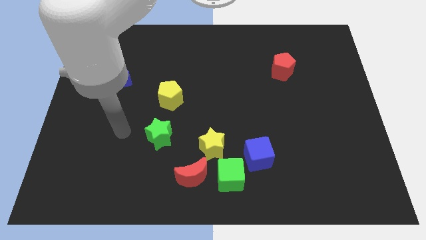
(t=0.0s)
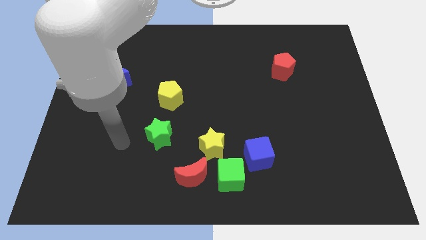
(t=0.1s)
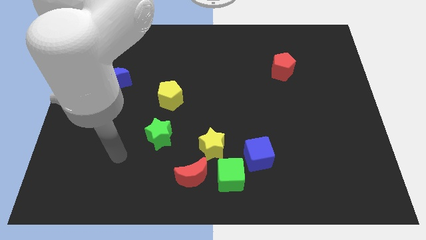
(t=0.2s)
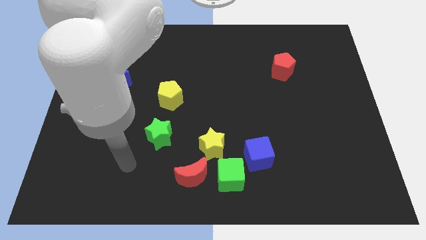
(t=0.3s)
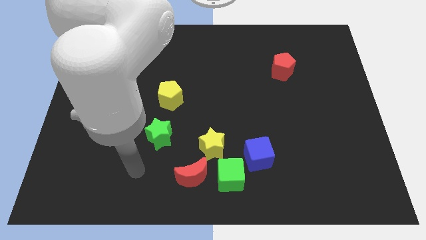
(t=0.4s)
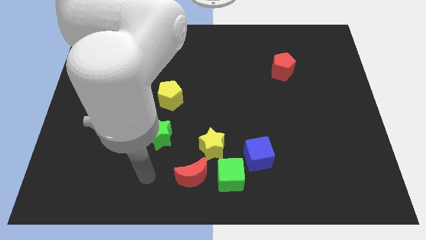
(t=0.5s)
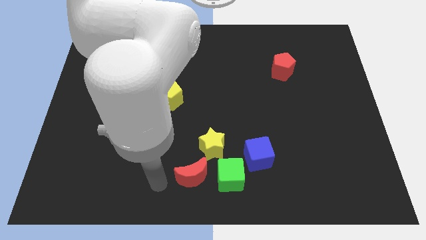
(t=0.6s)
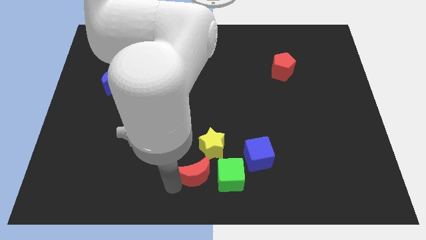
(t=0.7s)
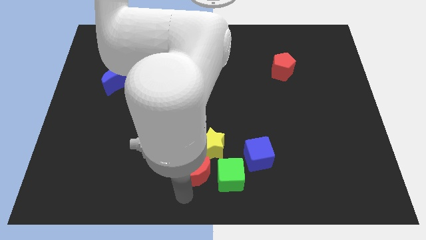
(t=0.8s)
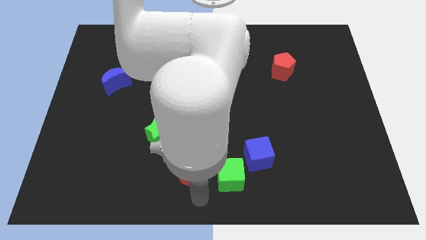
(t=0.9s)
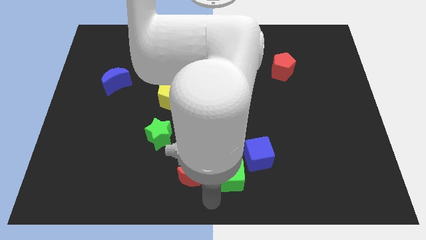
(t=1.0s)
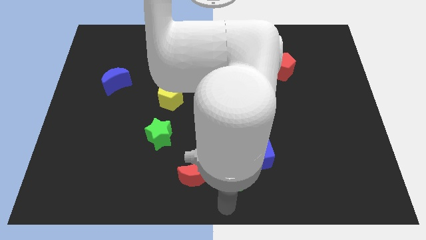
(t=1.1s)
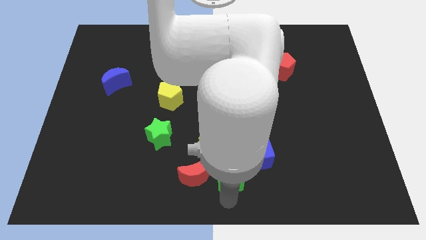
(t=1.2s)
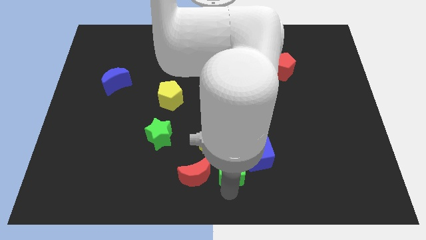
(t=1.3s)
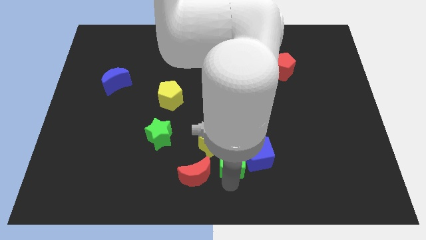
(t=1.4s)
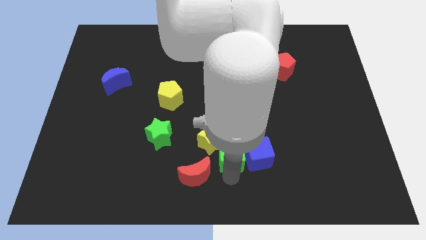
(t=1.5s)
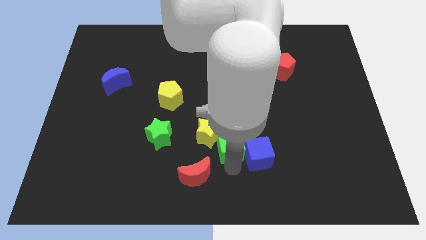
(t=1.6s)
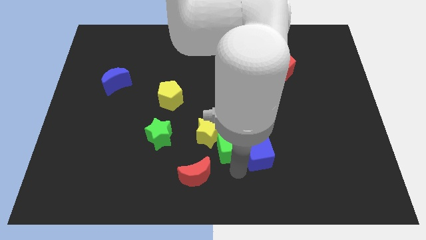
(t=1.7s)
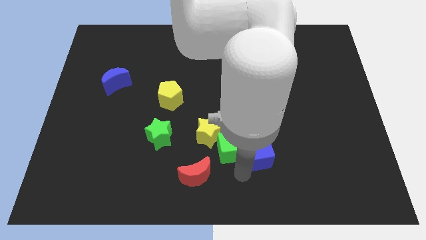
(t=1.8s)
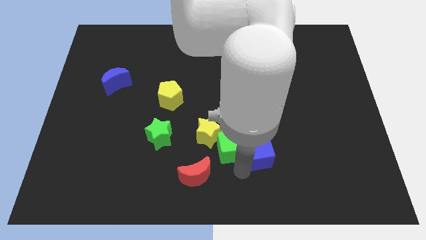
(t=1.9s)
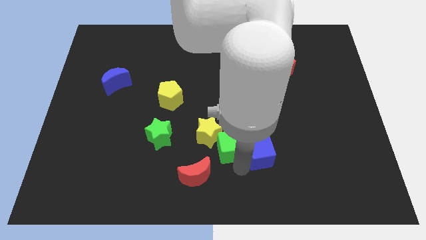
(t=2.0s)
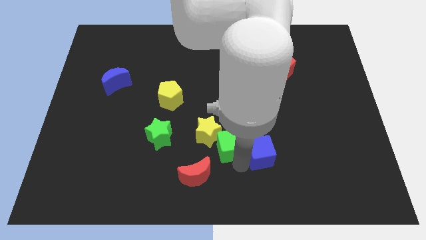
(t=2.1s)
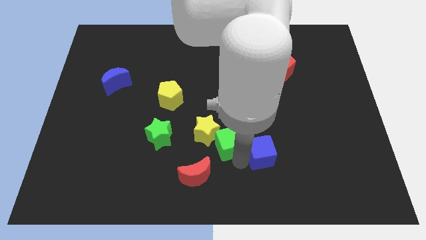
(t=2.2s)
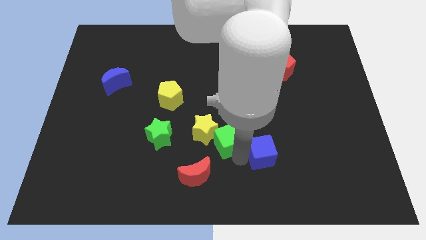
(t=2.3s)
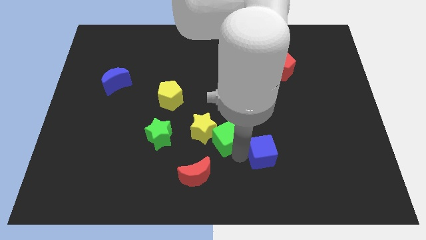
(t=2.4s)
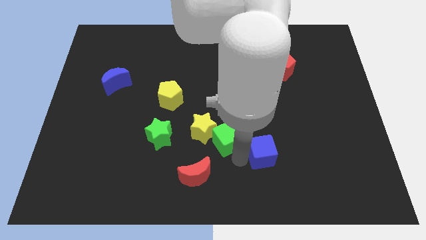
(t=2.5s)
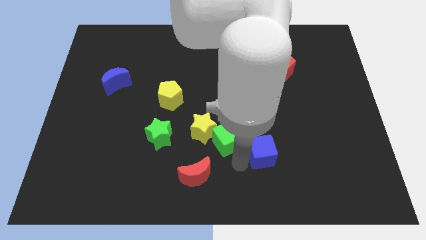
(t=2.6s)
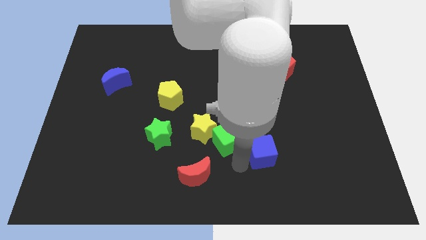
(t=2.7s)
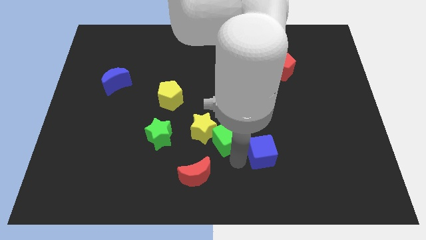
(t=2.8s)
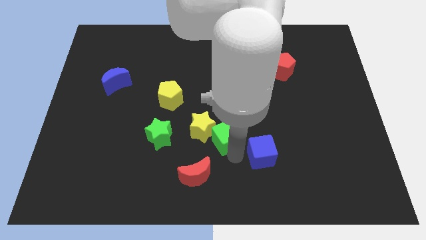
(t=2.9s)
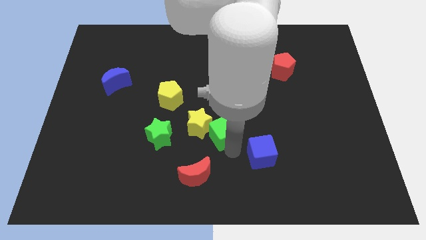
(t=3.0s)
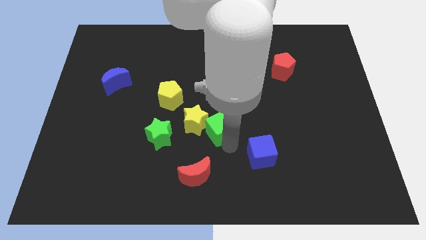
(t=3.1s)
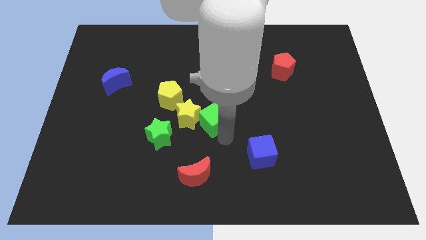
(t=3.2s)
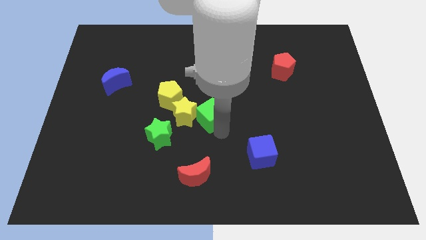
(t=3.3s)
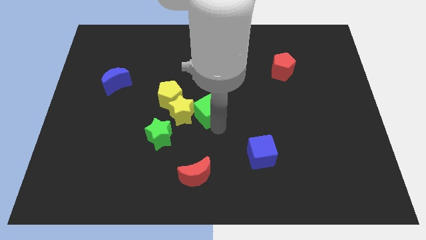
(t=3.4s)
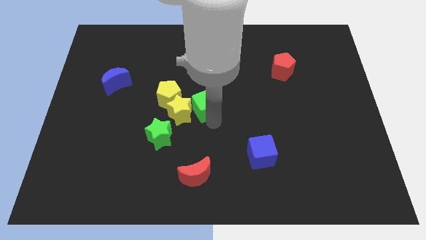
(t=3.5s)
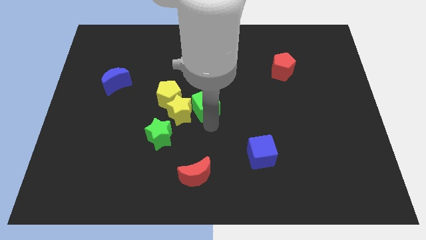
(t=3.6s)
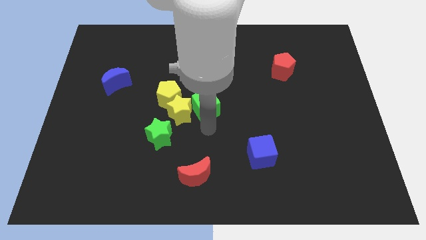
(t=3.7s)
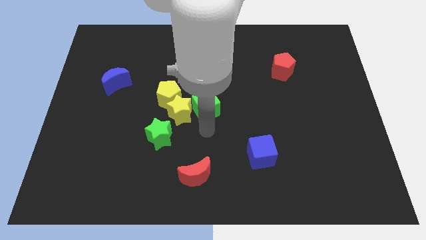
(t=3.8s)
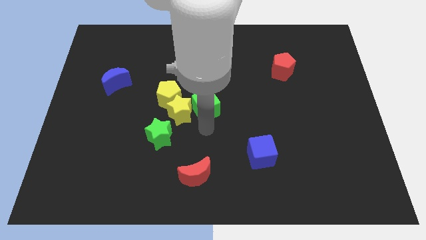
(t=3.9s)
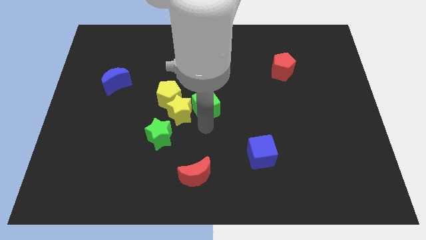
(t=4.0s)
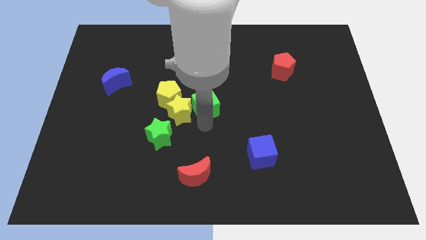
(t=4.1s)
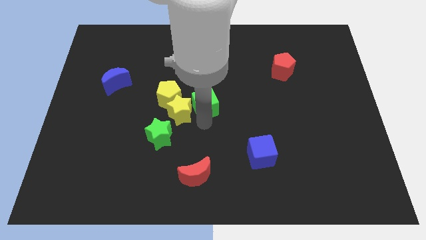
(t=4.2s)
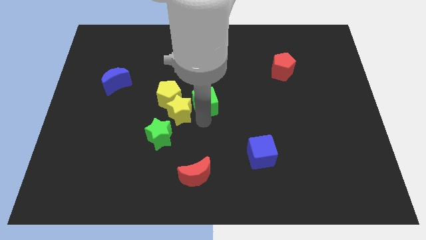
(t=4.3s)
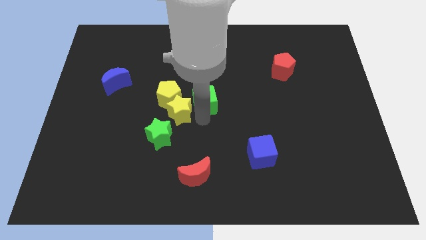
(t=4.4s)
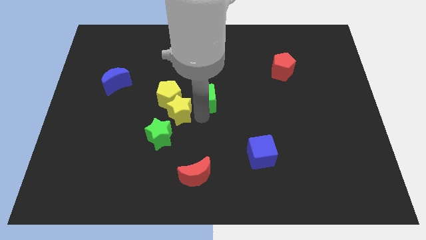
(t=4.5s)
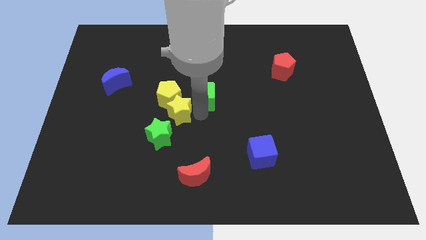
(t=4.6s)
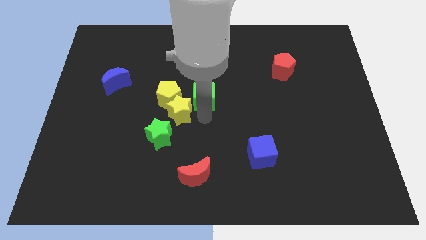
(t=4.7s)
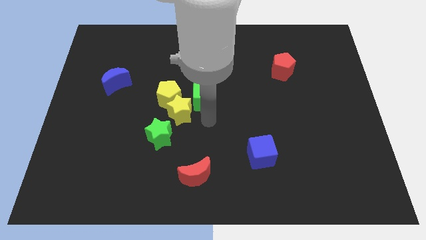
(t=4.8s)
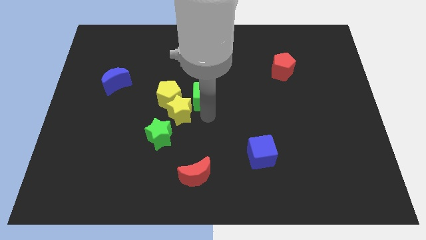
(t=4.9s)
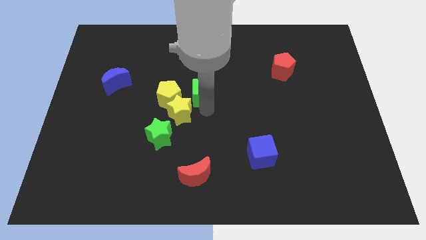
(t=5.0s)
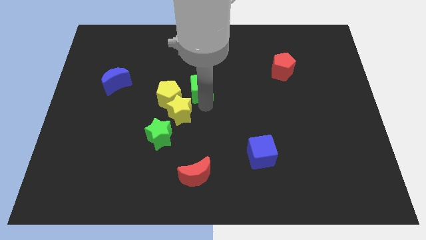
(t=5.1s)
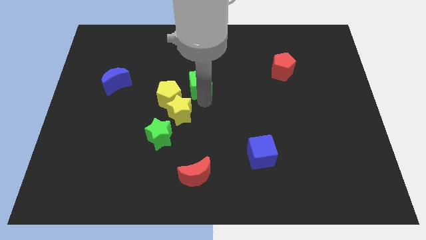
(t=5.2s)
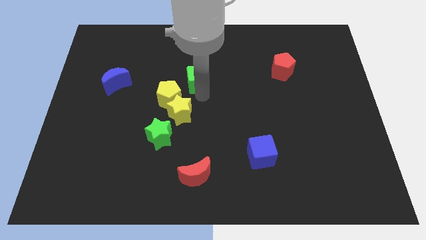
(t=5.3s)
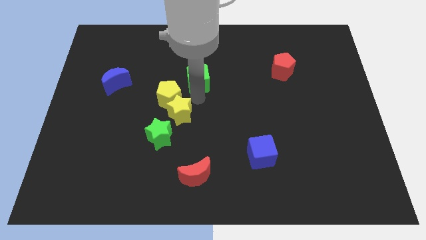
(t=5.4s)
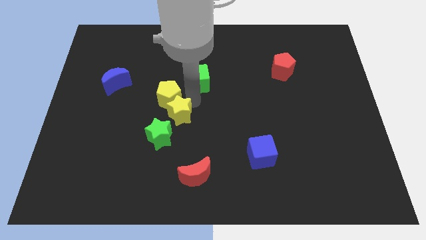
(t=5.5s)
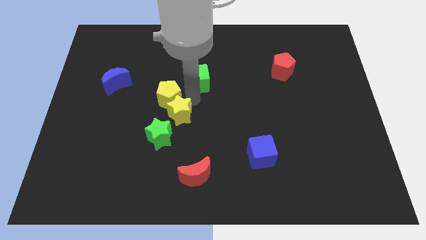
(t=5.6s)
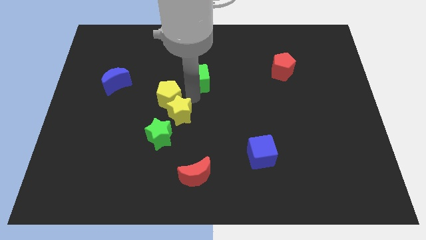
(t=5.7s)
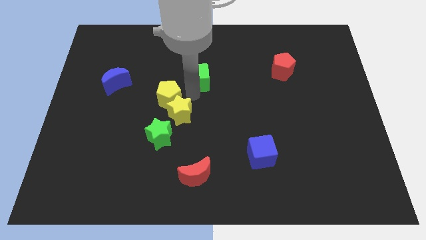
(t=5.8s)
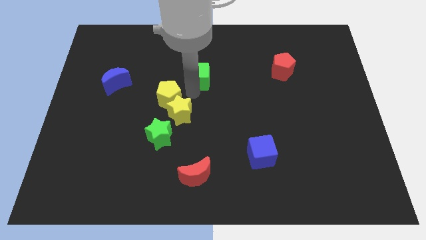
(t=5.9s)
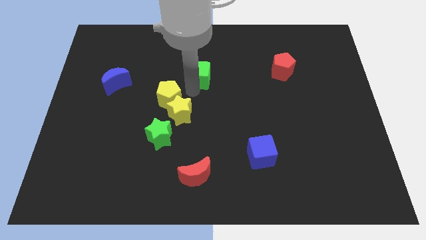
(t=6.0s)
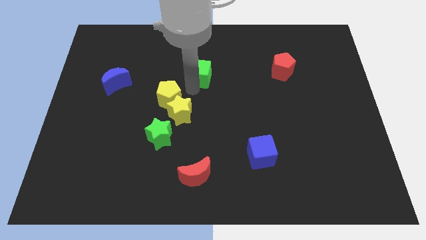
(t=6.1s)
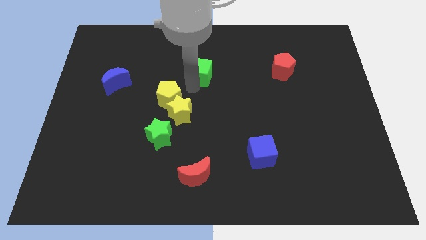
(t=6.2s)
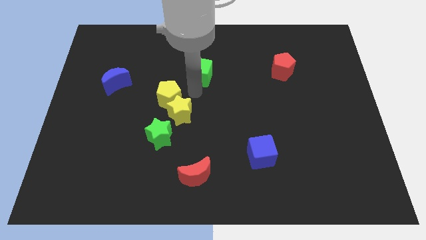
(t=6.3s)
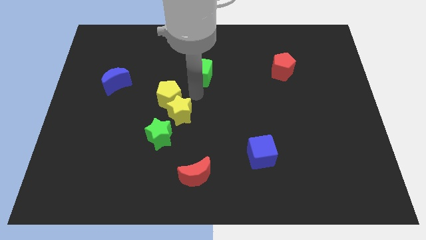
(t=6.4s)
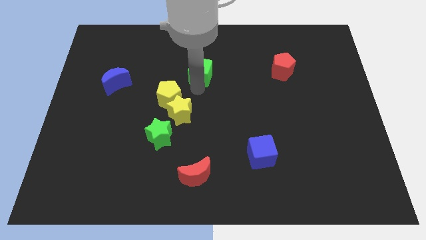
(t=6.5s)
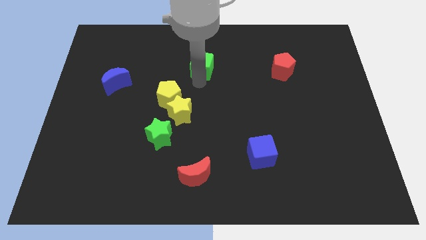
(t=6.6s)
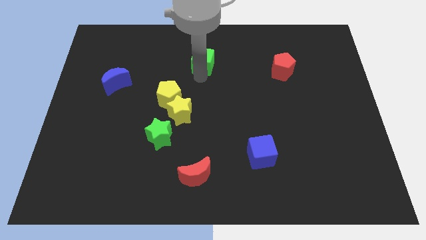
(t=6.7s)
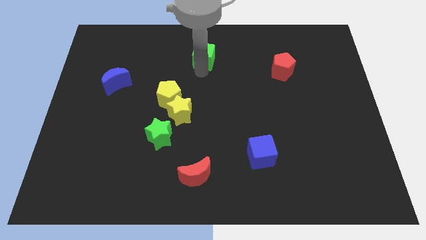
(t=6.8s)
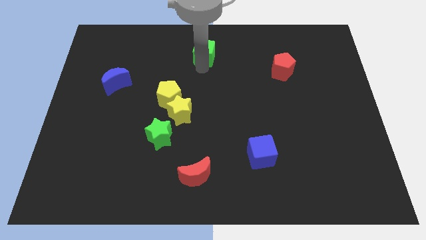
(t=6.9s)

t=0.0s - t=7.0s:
put the green cube to the towards your base
